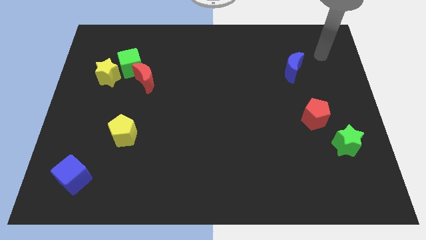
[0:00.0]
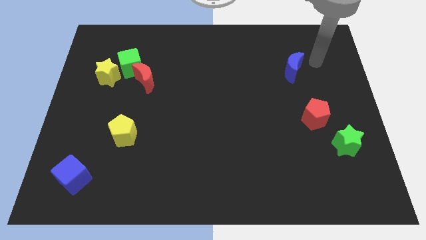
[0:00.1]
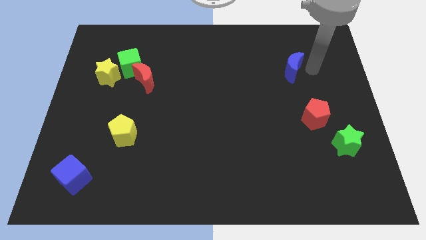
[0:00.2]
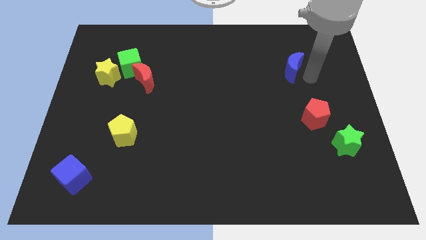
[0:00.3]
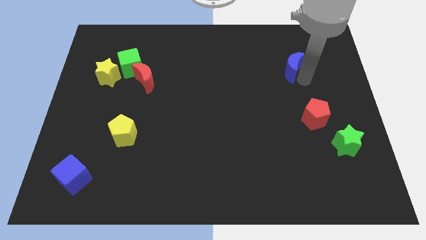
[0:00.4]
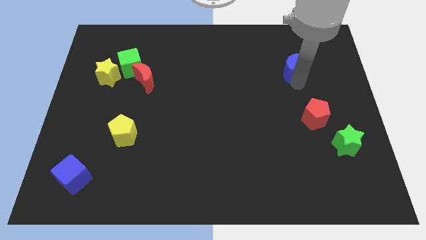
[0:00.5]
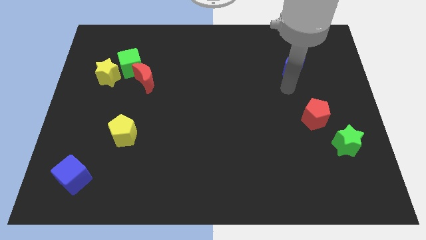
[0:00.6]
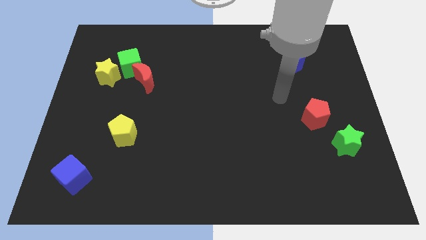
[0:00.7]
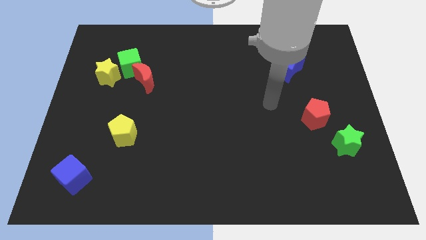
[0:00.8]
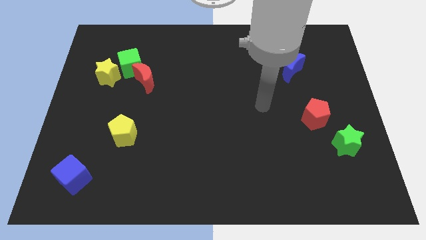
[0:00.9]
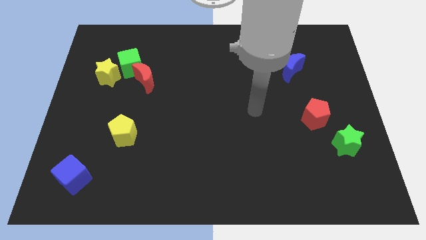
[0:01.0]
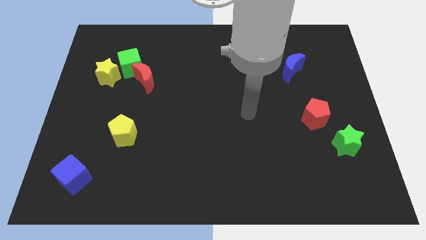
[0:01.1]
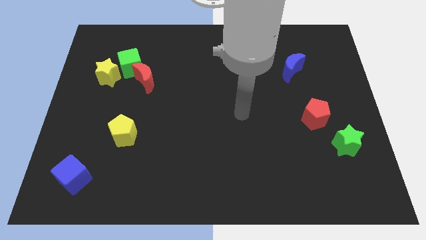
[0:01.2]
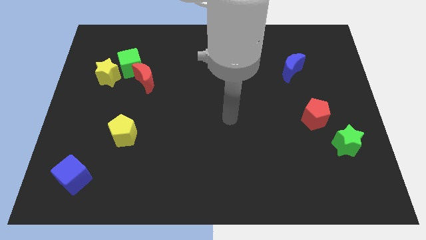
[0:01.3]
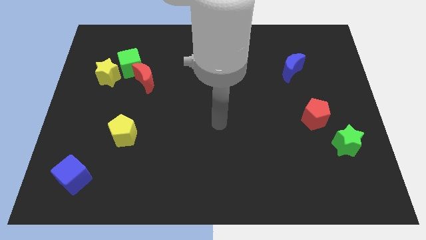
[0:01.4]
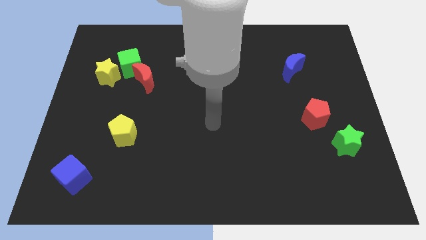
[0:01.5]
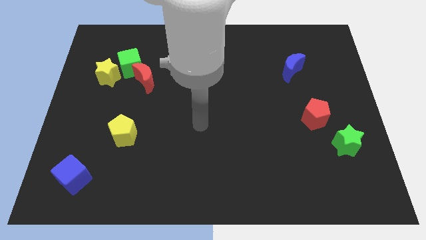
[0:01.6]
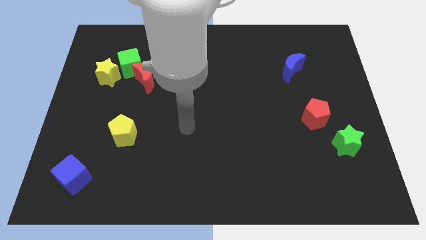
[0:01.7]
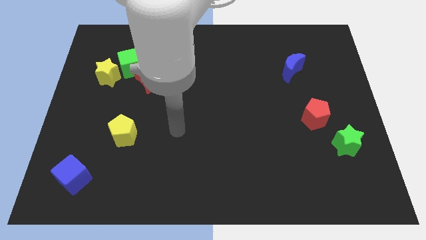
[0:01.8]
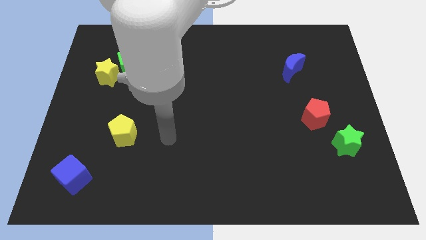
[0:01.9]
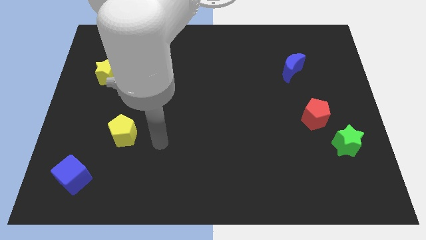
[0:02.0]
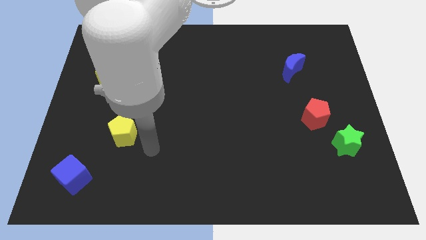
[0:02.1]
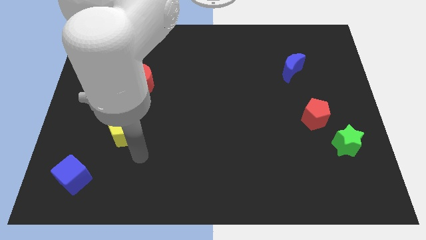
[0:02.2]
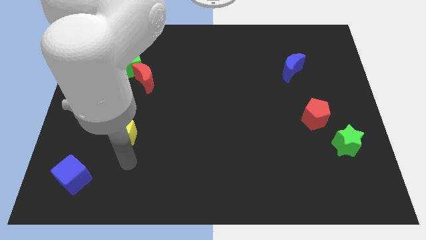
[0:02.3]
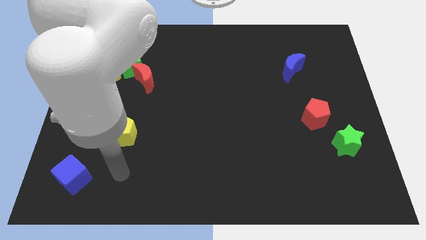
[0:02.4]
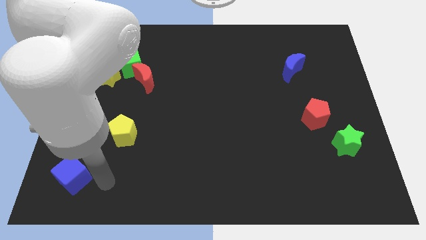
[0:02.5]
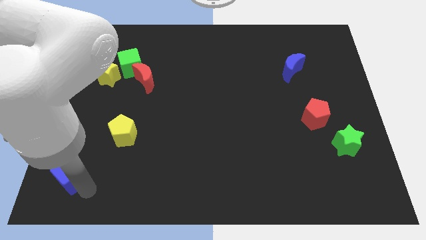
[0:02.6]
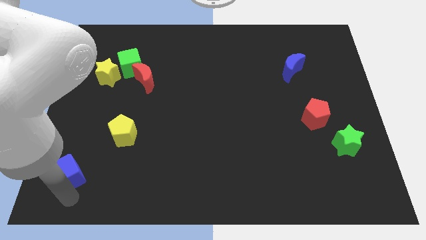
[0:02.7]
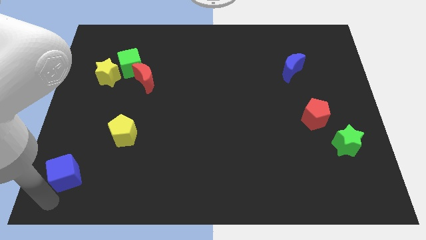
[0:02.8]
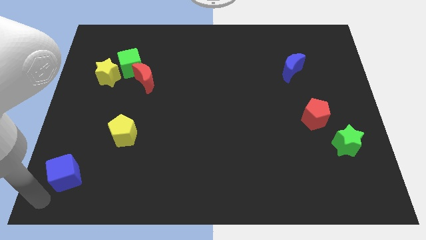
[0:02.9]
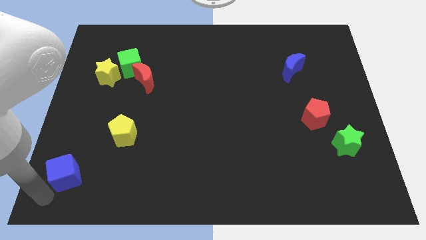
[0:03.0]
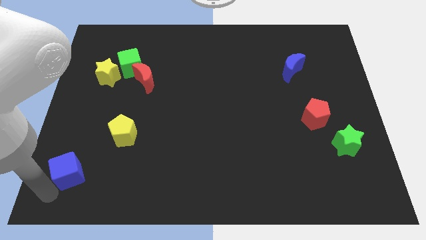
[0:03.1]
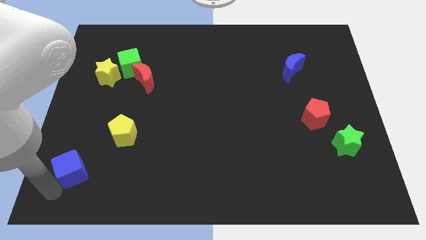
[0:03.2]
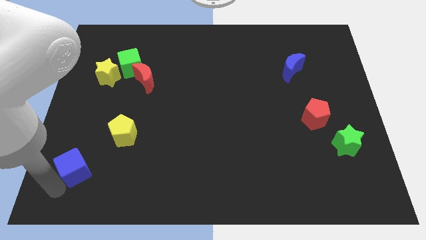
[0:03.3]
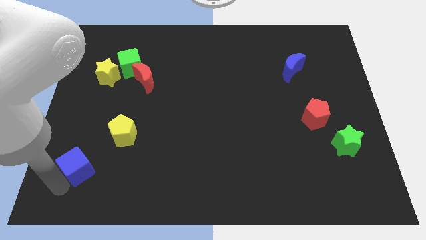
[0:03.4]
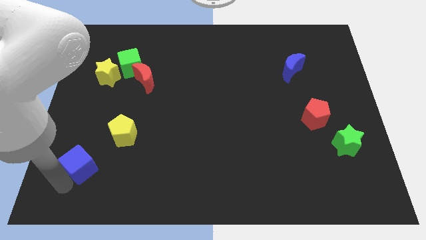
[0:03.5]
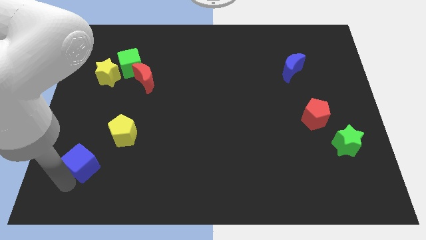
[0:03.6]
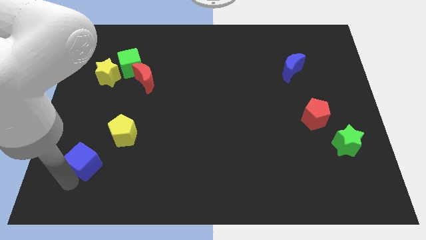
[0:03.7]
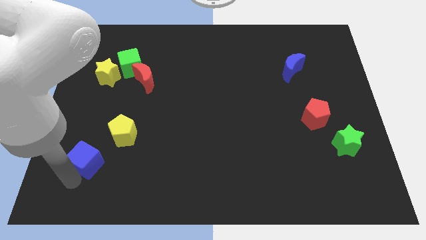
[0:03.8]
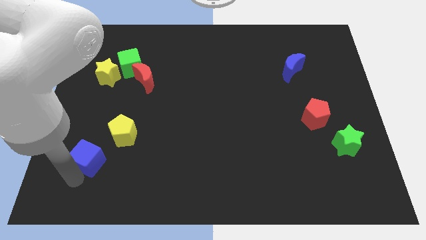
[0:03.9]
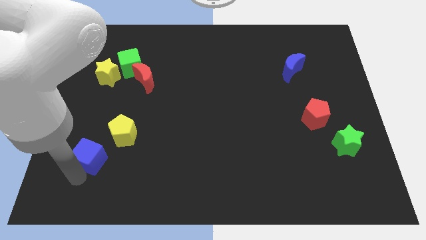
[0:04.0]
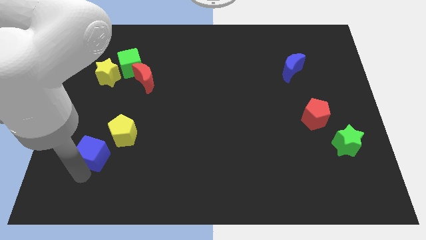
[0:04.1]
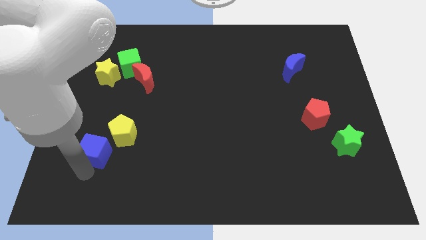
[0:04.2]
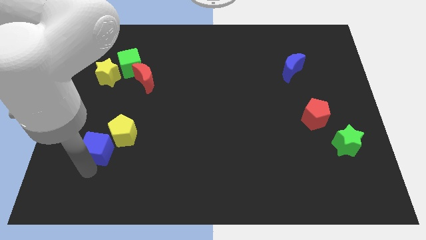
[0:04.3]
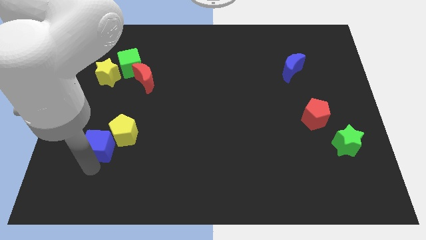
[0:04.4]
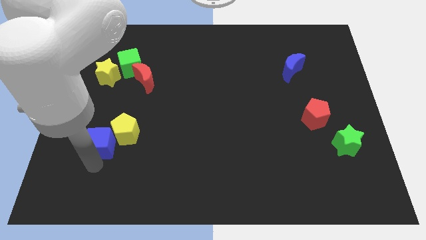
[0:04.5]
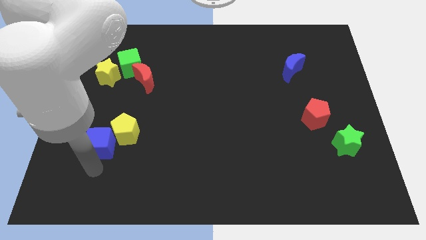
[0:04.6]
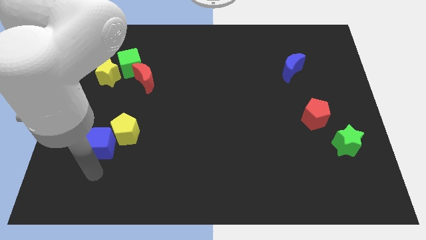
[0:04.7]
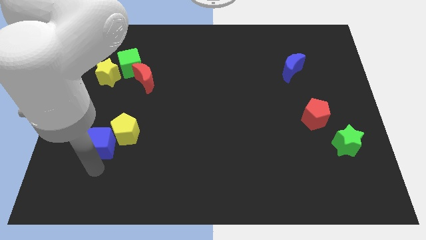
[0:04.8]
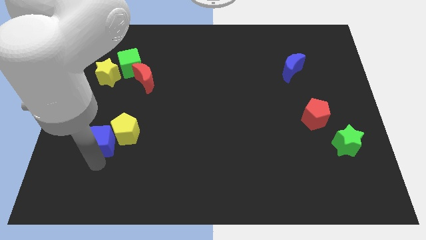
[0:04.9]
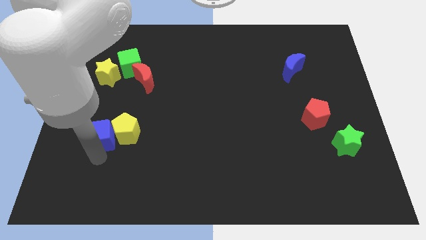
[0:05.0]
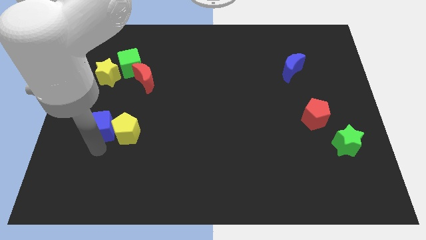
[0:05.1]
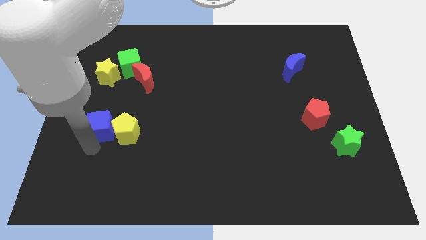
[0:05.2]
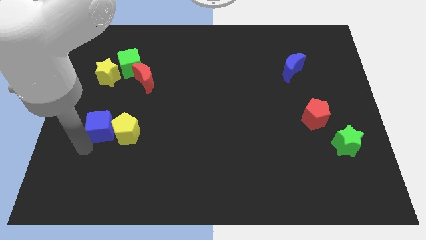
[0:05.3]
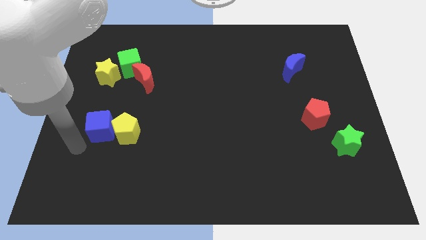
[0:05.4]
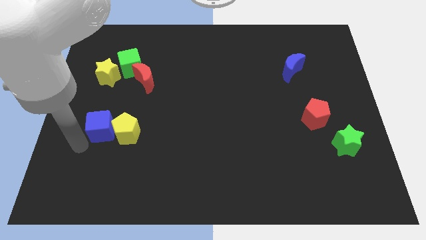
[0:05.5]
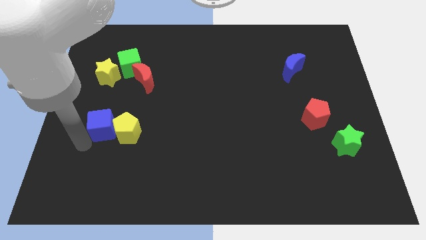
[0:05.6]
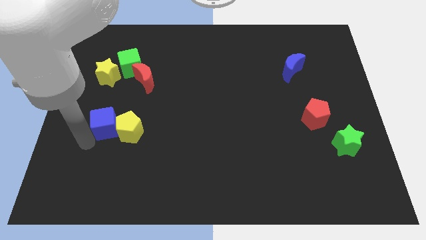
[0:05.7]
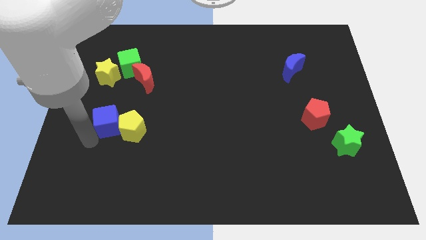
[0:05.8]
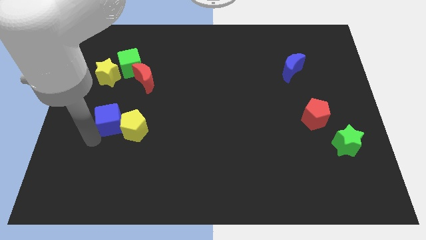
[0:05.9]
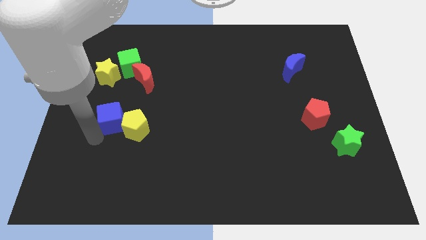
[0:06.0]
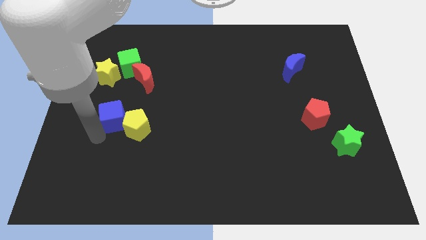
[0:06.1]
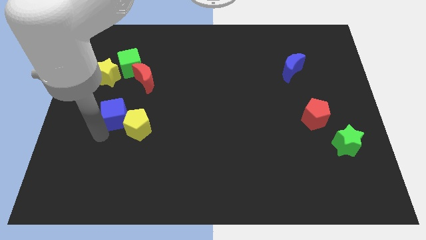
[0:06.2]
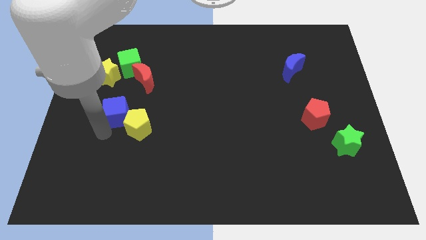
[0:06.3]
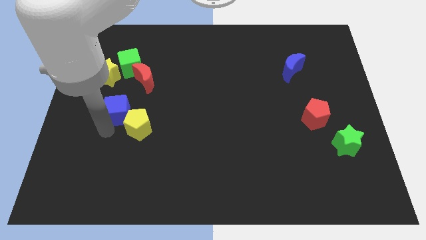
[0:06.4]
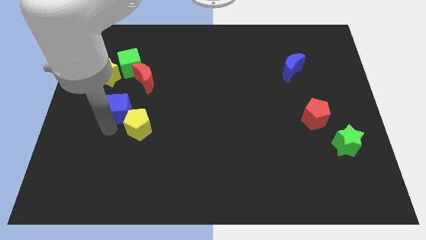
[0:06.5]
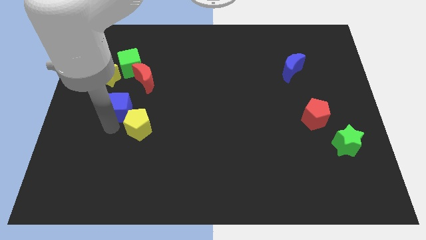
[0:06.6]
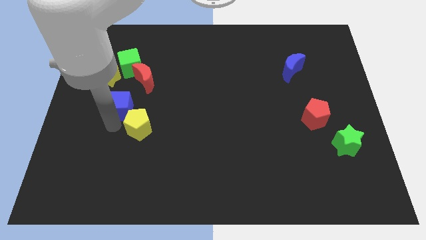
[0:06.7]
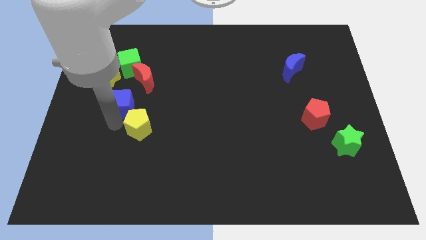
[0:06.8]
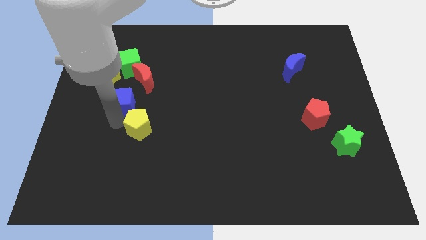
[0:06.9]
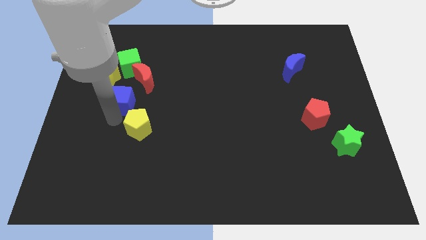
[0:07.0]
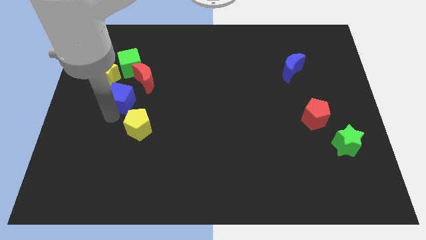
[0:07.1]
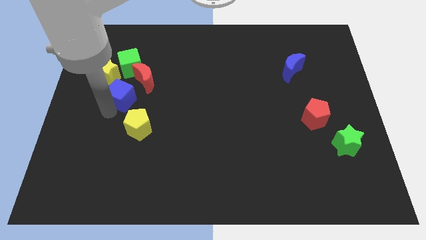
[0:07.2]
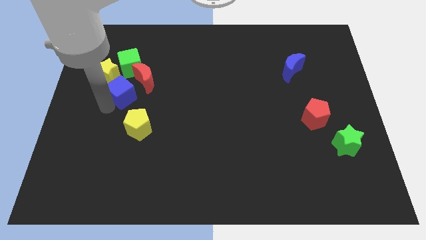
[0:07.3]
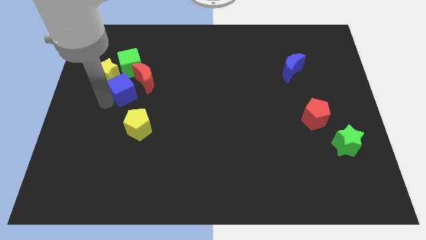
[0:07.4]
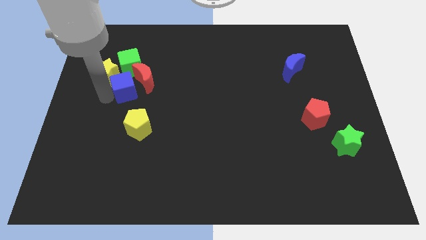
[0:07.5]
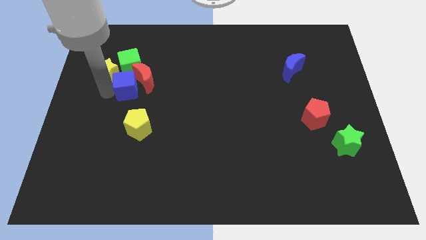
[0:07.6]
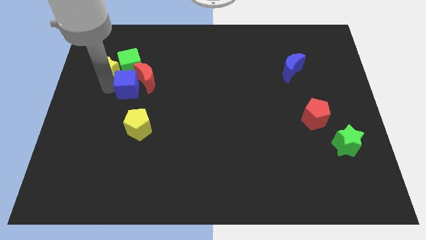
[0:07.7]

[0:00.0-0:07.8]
move the blue cube to the bottom right side of the green cube
